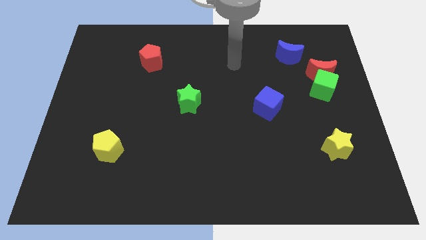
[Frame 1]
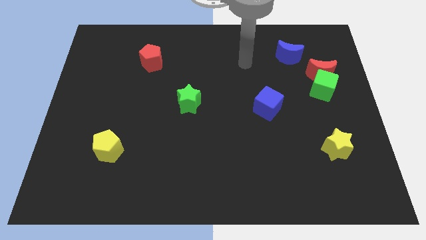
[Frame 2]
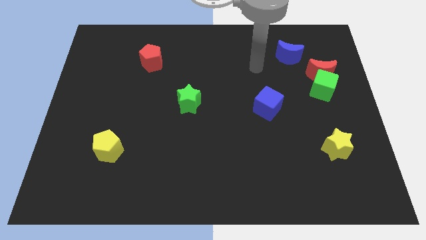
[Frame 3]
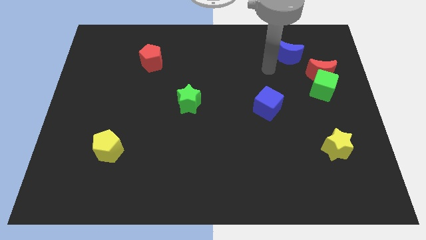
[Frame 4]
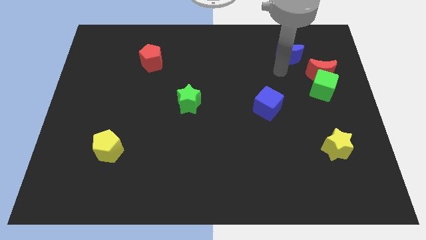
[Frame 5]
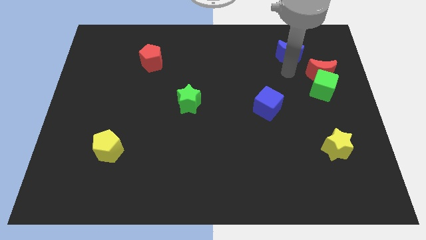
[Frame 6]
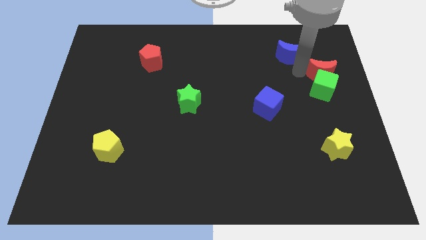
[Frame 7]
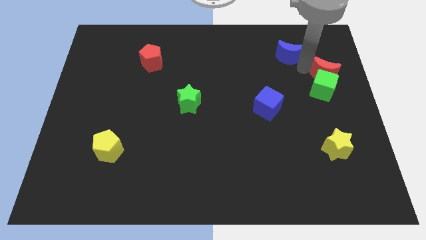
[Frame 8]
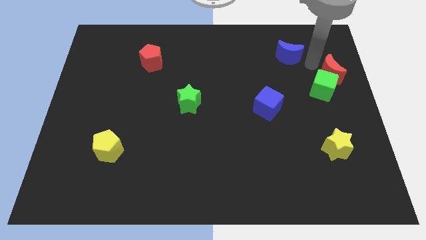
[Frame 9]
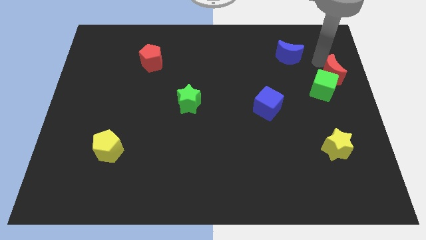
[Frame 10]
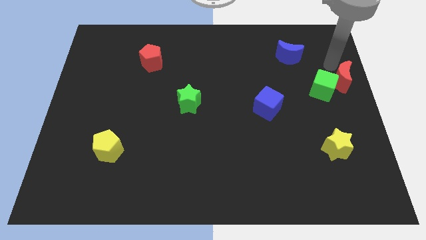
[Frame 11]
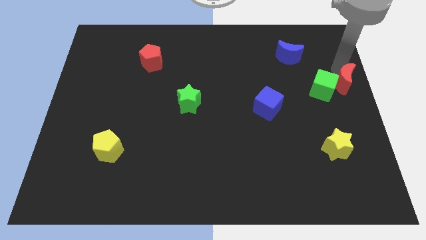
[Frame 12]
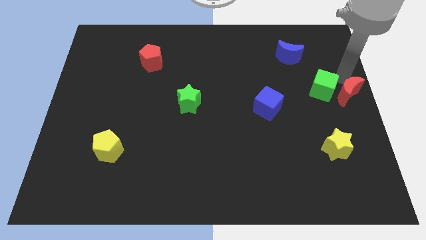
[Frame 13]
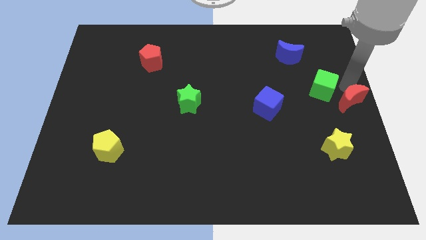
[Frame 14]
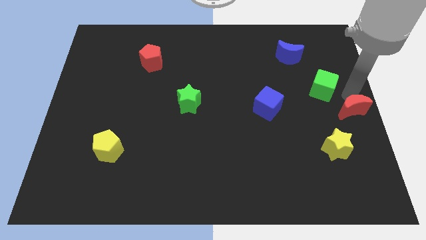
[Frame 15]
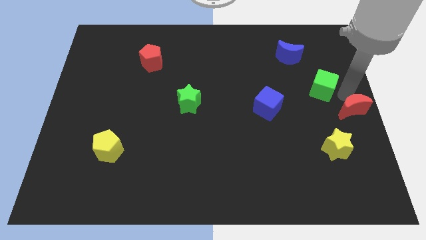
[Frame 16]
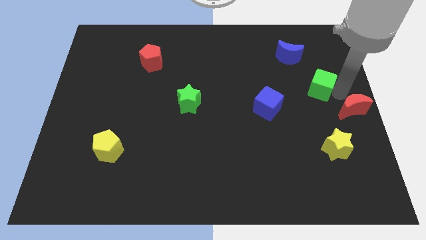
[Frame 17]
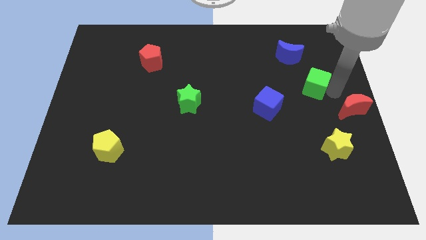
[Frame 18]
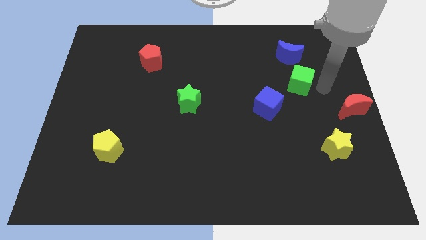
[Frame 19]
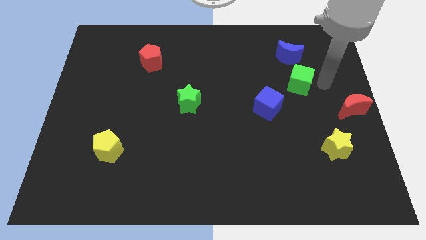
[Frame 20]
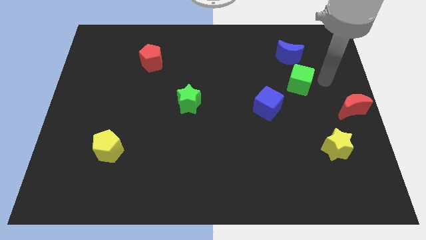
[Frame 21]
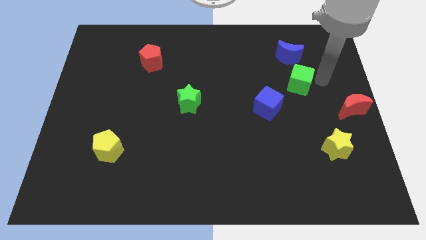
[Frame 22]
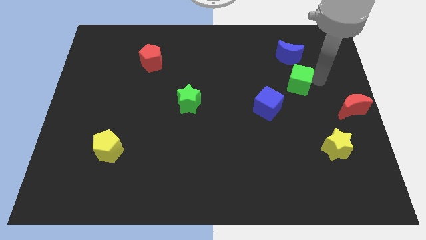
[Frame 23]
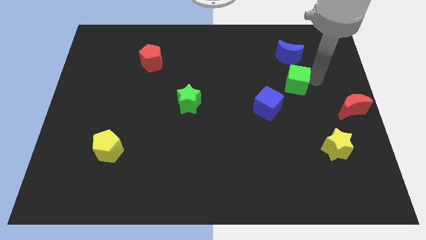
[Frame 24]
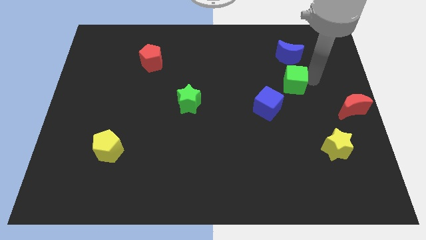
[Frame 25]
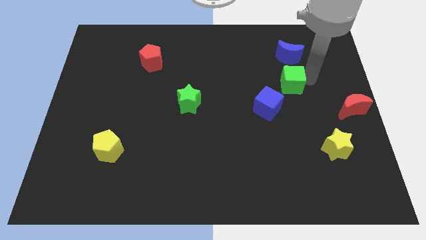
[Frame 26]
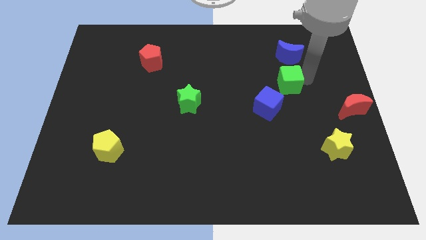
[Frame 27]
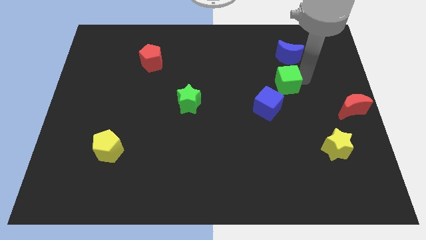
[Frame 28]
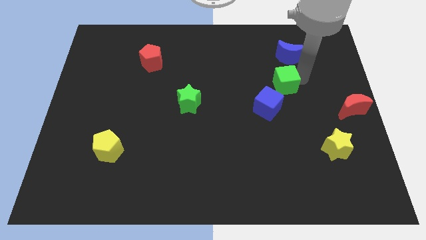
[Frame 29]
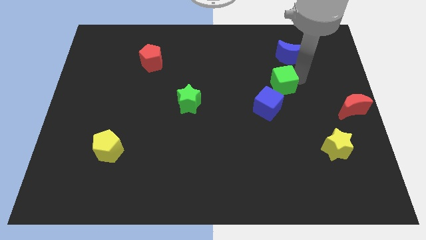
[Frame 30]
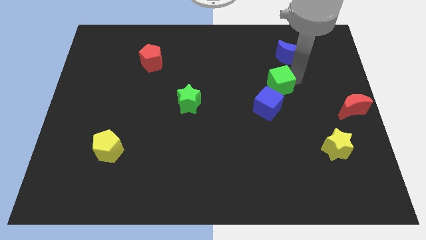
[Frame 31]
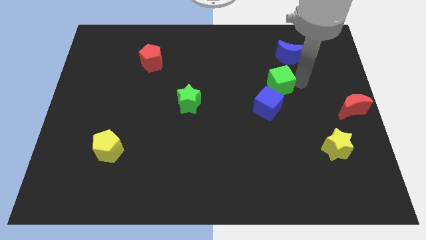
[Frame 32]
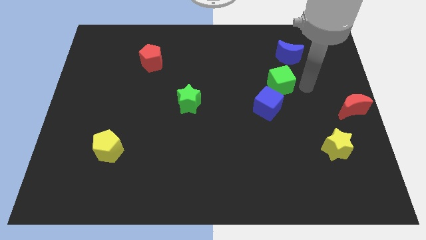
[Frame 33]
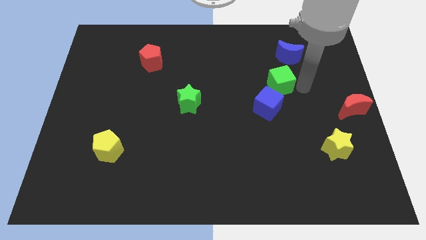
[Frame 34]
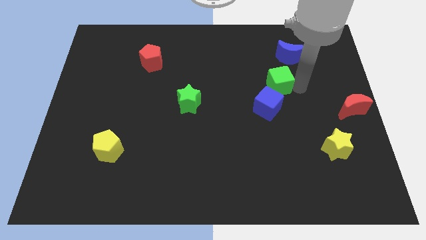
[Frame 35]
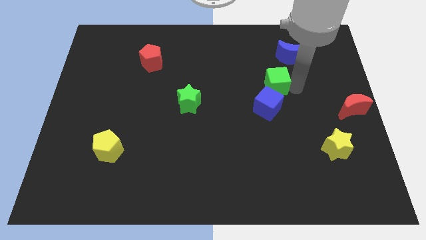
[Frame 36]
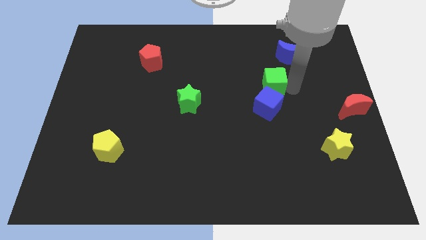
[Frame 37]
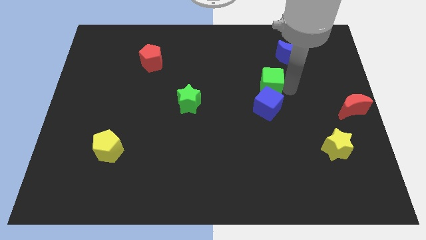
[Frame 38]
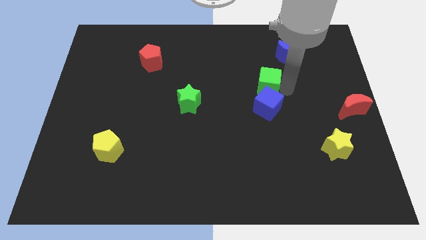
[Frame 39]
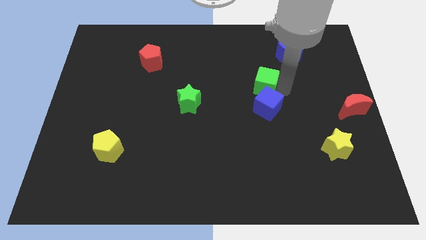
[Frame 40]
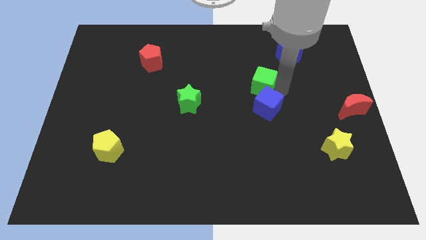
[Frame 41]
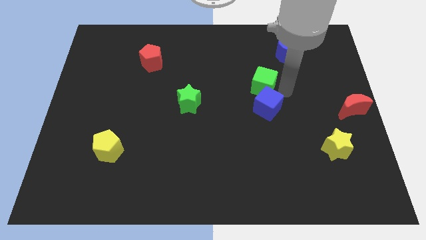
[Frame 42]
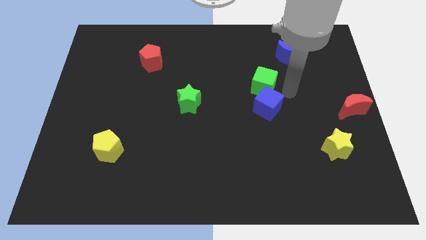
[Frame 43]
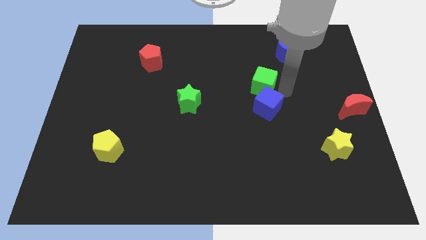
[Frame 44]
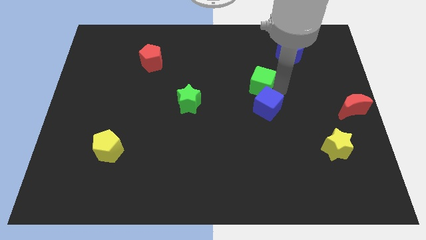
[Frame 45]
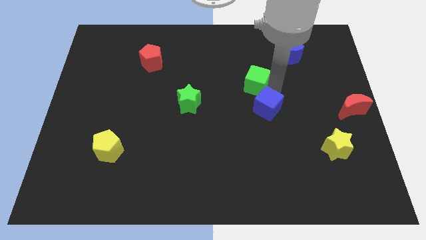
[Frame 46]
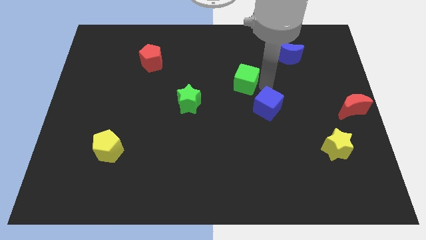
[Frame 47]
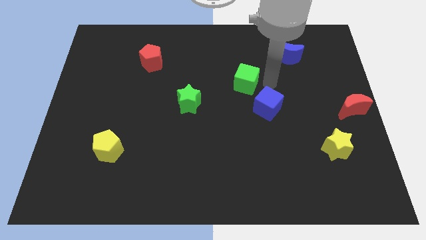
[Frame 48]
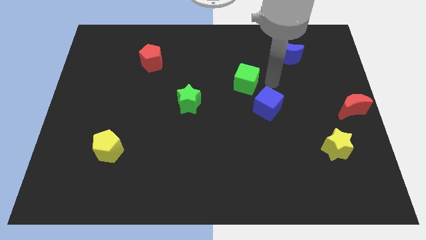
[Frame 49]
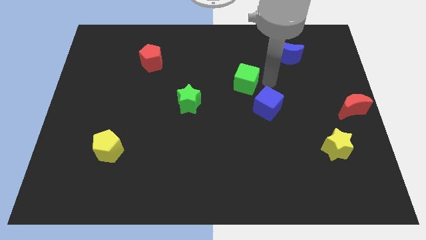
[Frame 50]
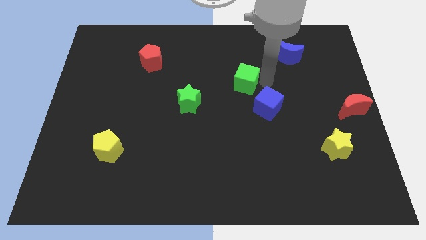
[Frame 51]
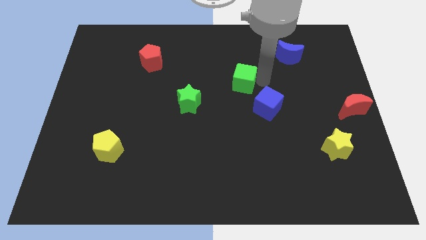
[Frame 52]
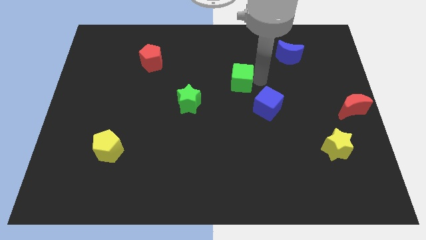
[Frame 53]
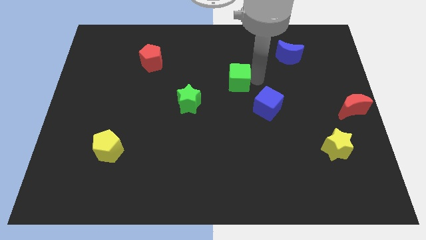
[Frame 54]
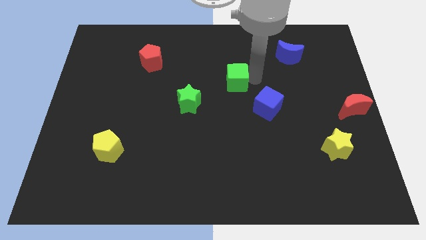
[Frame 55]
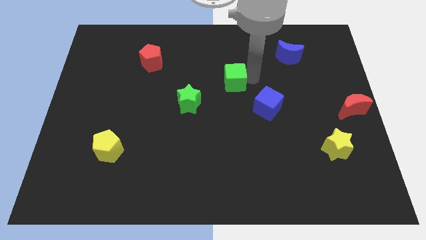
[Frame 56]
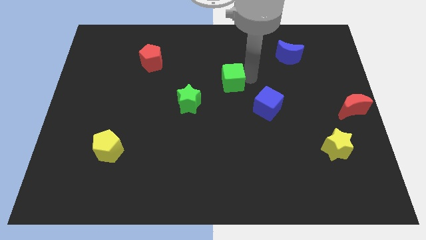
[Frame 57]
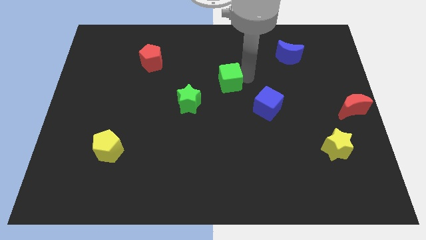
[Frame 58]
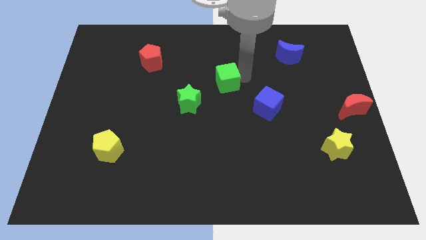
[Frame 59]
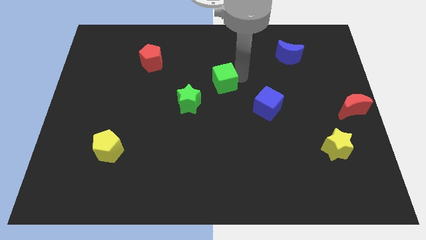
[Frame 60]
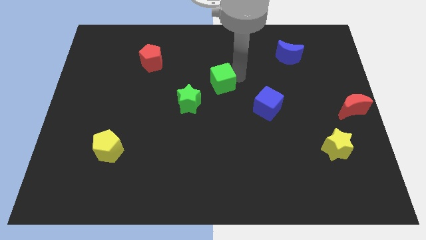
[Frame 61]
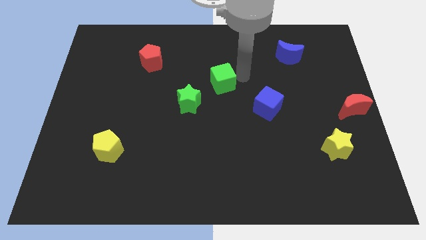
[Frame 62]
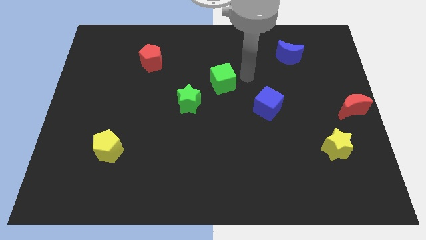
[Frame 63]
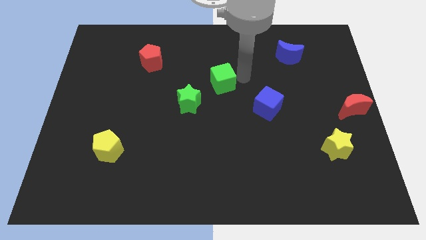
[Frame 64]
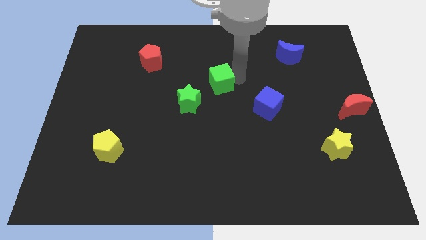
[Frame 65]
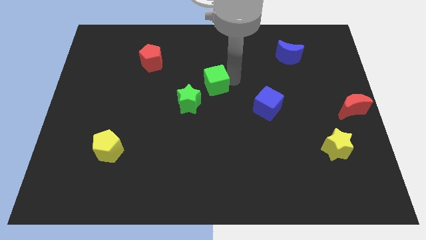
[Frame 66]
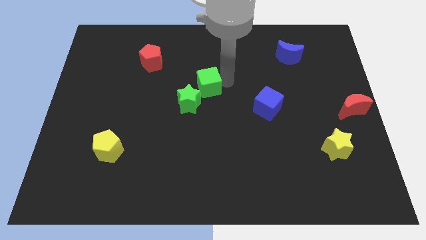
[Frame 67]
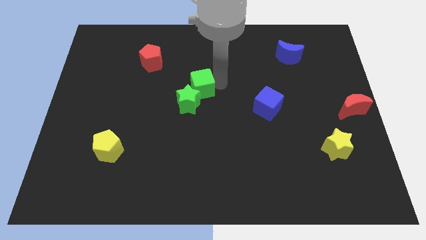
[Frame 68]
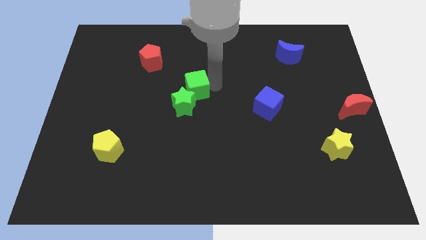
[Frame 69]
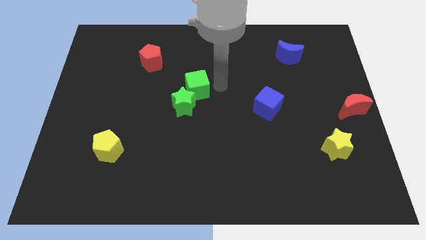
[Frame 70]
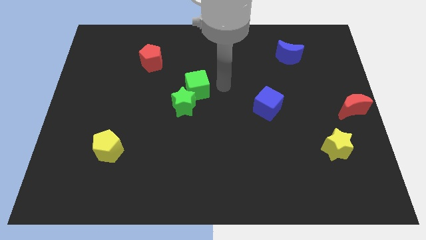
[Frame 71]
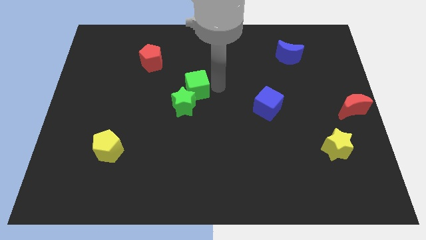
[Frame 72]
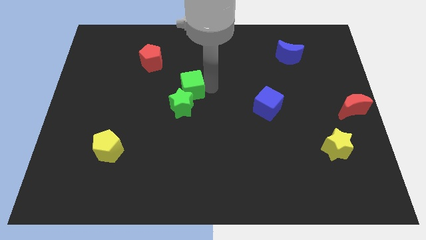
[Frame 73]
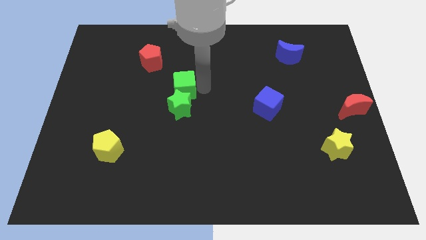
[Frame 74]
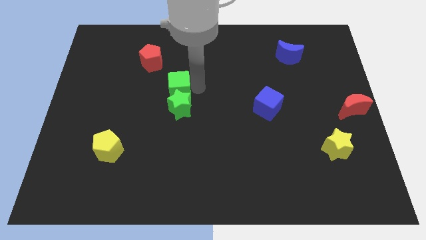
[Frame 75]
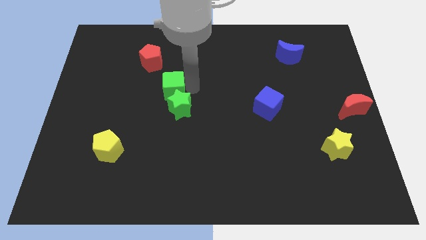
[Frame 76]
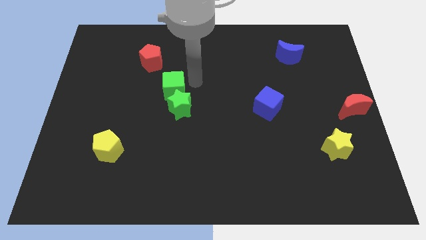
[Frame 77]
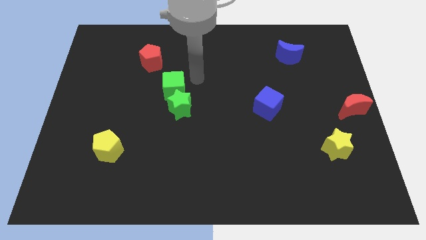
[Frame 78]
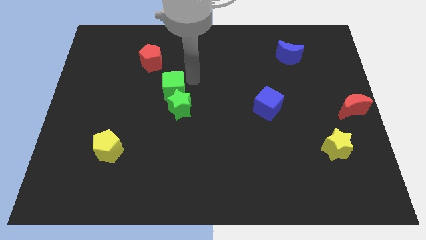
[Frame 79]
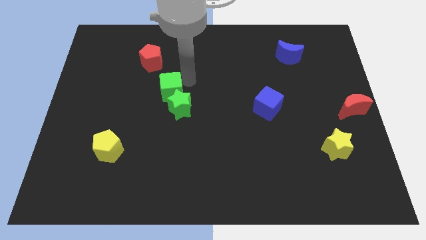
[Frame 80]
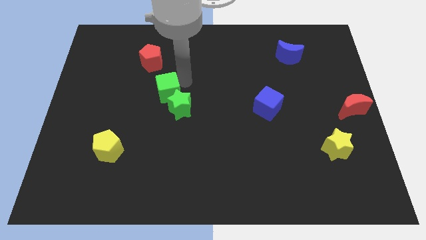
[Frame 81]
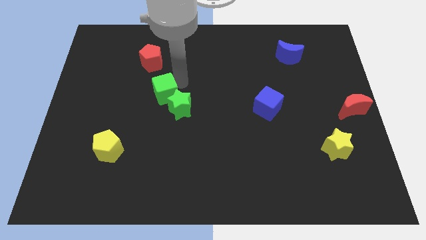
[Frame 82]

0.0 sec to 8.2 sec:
put the green cube just left of the green star
